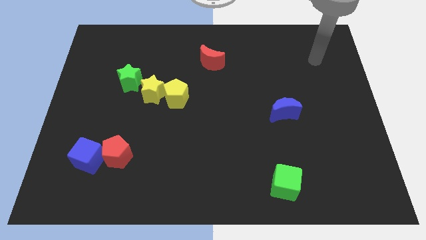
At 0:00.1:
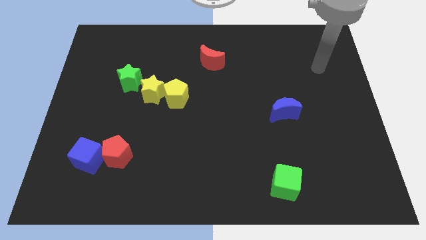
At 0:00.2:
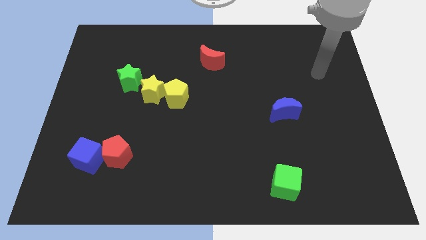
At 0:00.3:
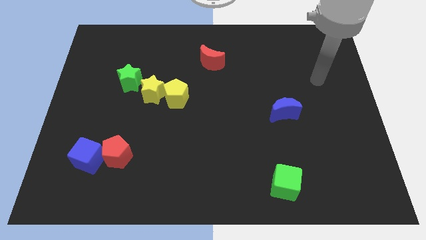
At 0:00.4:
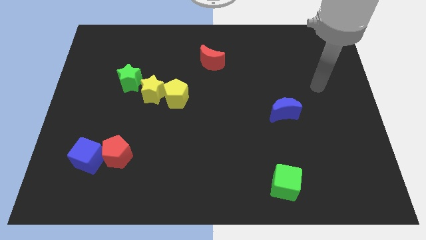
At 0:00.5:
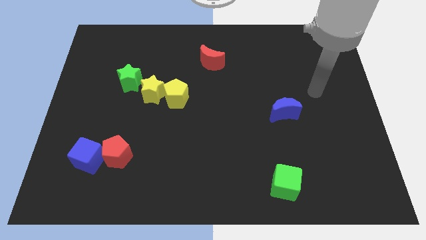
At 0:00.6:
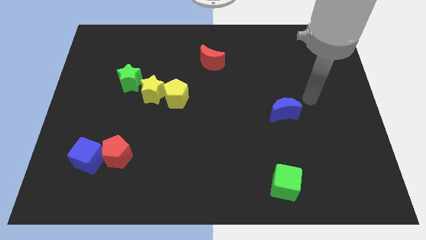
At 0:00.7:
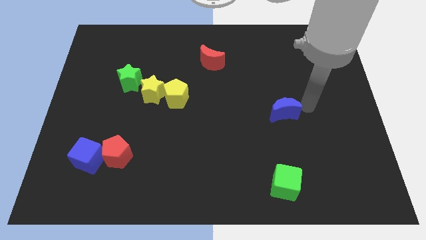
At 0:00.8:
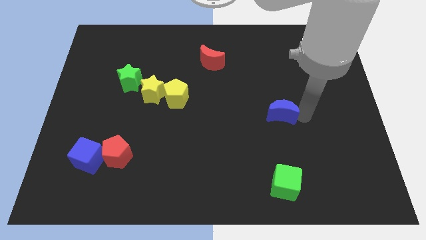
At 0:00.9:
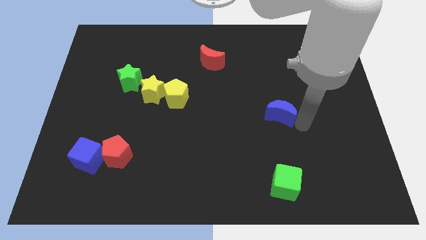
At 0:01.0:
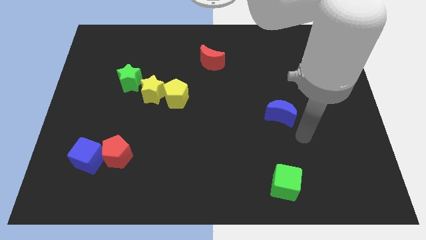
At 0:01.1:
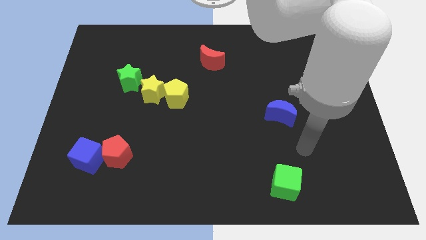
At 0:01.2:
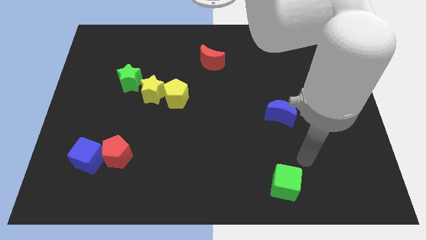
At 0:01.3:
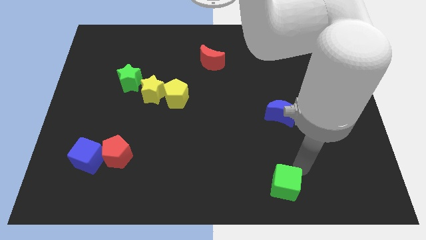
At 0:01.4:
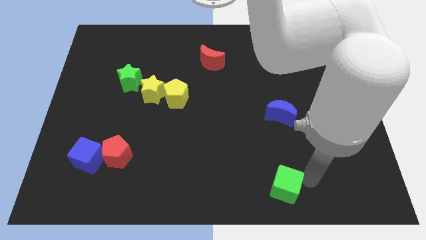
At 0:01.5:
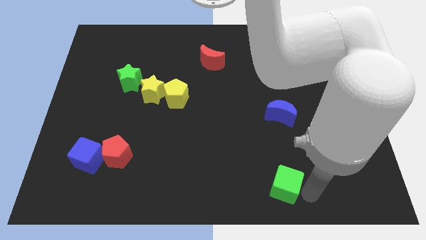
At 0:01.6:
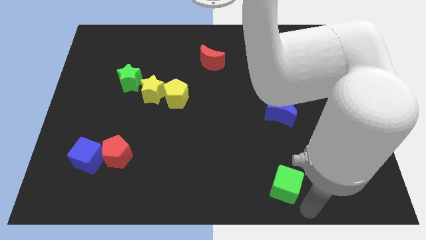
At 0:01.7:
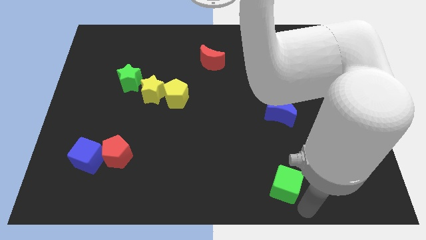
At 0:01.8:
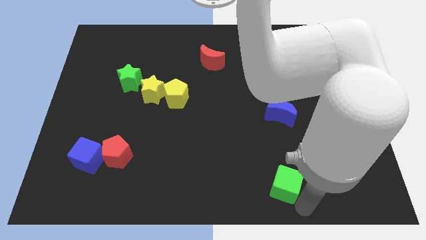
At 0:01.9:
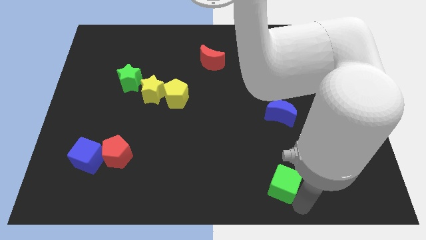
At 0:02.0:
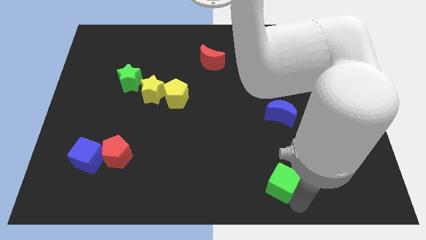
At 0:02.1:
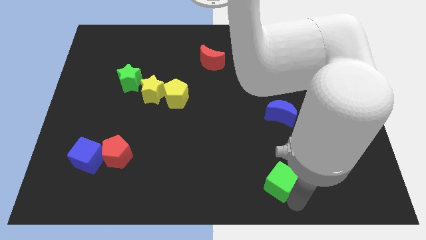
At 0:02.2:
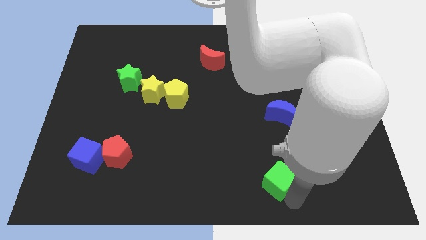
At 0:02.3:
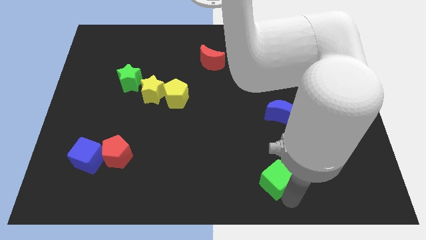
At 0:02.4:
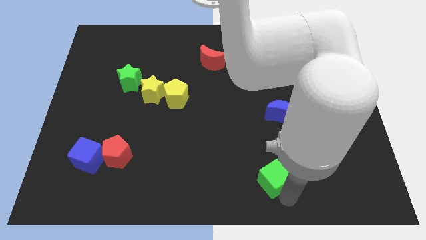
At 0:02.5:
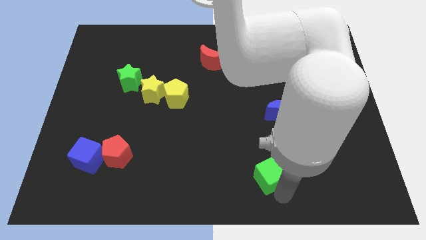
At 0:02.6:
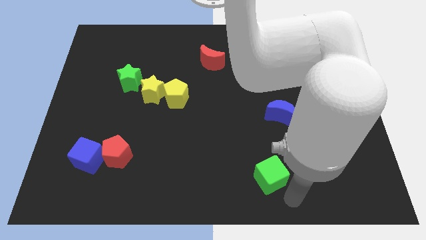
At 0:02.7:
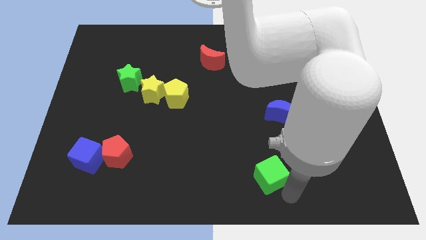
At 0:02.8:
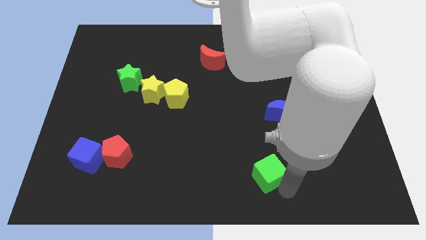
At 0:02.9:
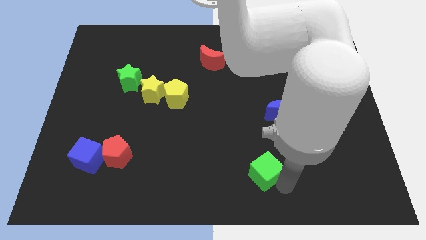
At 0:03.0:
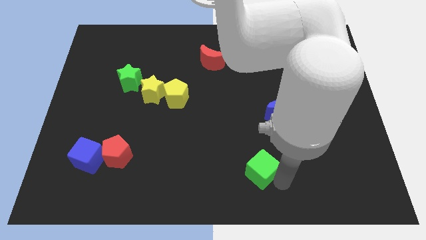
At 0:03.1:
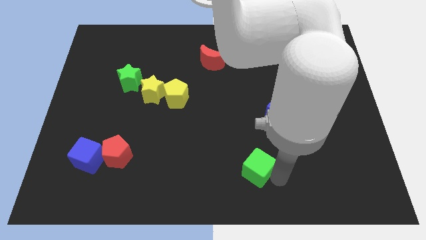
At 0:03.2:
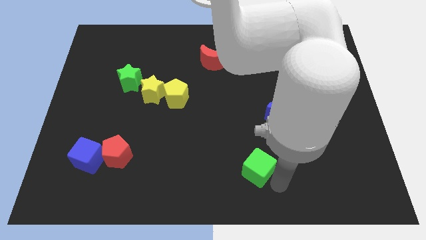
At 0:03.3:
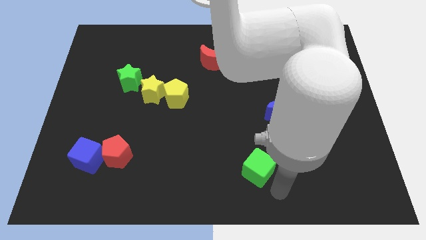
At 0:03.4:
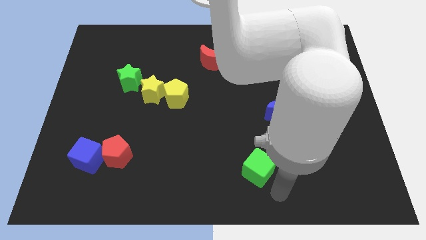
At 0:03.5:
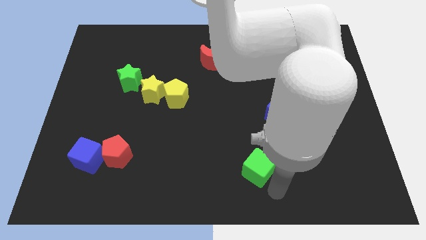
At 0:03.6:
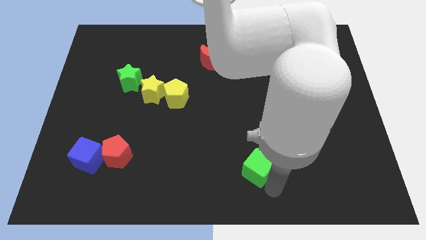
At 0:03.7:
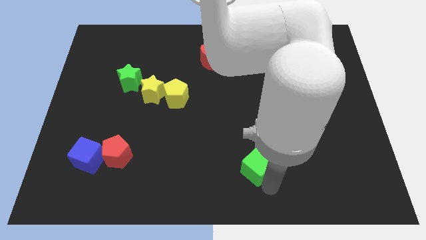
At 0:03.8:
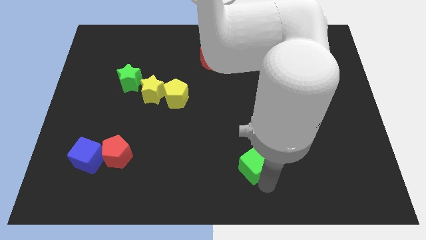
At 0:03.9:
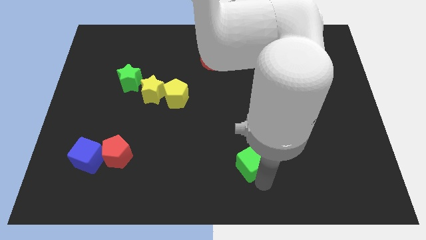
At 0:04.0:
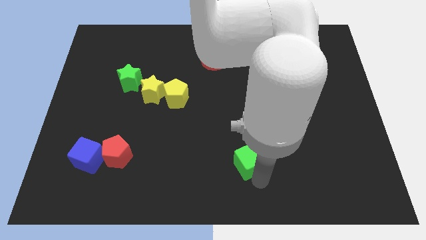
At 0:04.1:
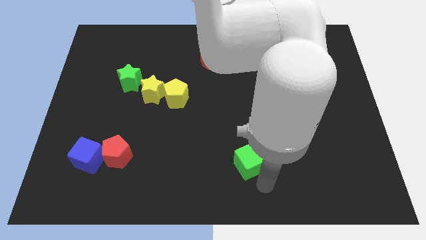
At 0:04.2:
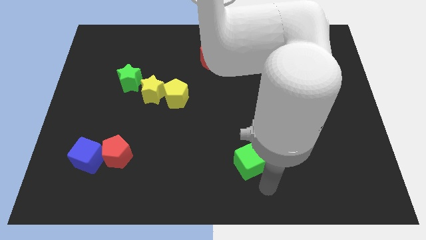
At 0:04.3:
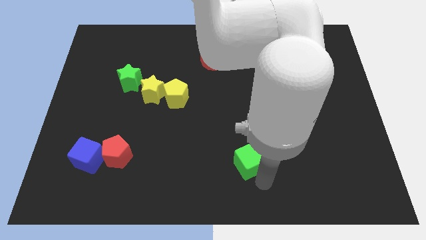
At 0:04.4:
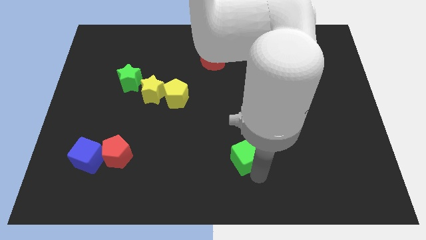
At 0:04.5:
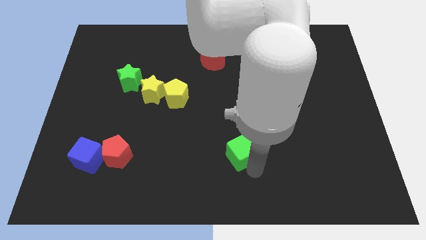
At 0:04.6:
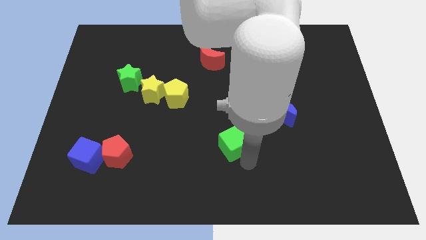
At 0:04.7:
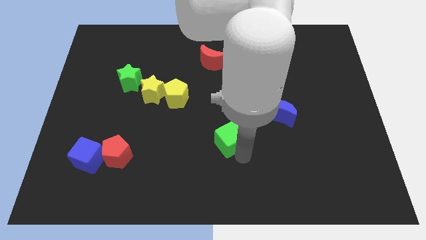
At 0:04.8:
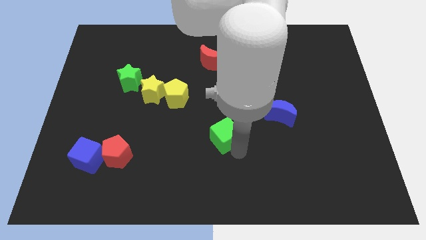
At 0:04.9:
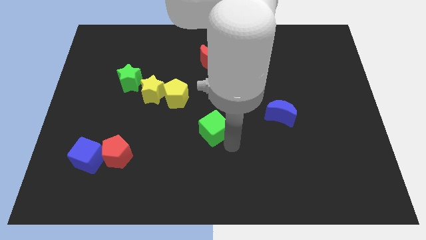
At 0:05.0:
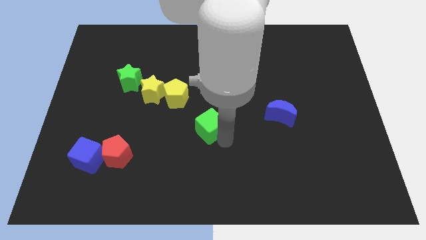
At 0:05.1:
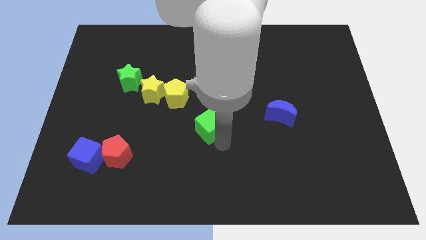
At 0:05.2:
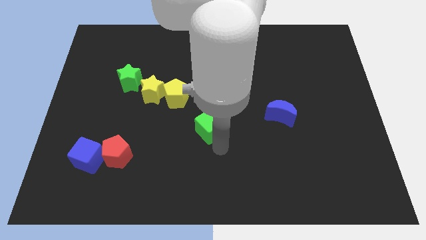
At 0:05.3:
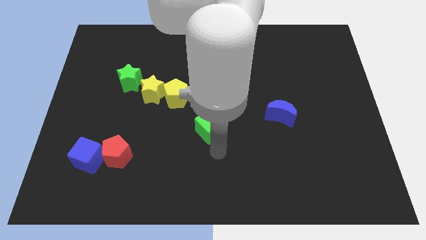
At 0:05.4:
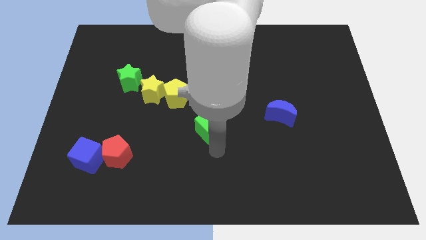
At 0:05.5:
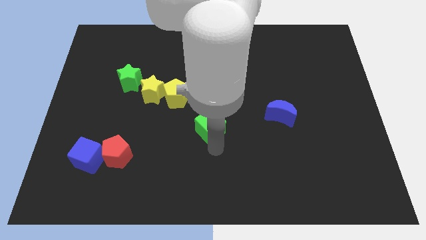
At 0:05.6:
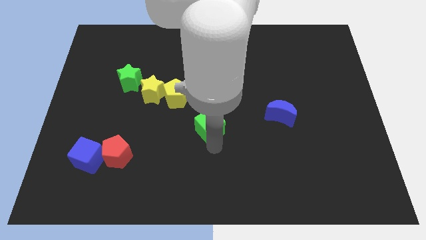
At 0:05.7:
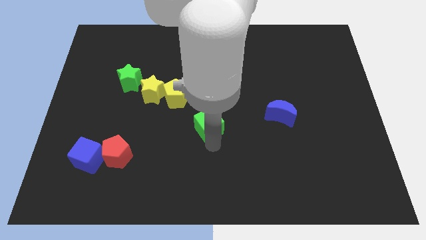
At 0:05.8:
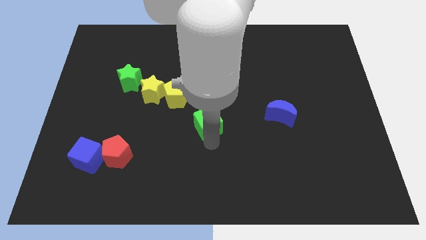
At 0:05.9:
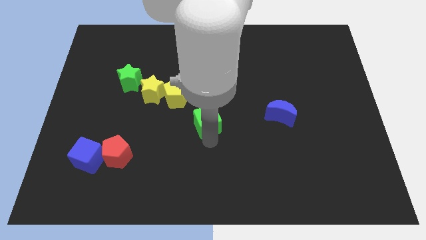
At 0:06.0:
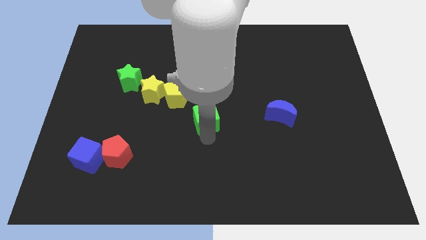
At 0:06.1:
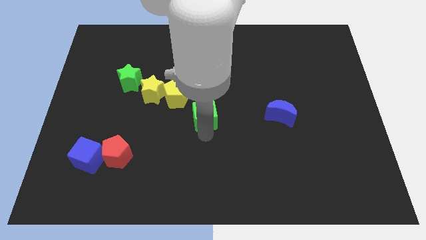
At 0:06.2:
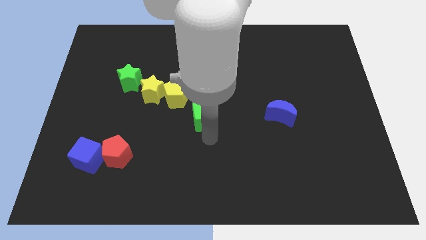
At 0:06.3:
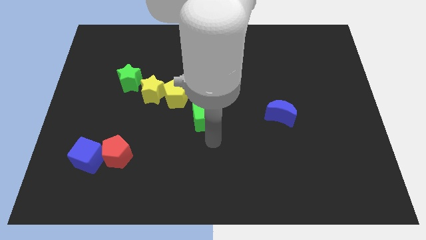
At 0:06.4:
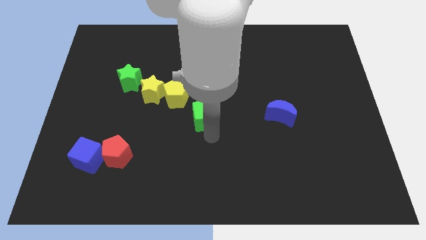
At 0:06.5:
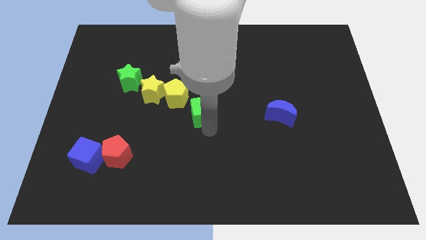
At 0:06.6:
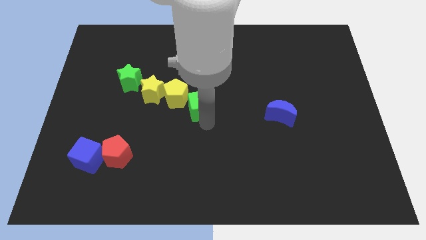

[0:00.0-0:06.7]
put the green cube to the right of the yellow star

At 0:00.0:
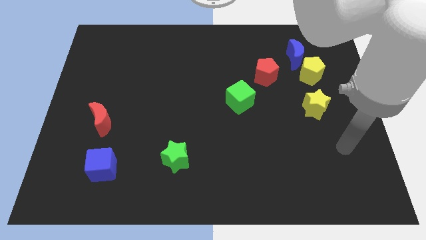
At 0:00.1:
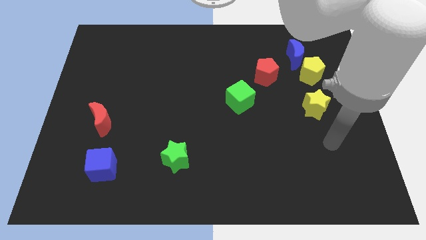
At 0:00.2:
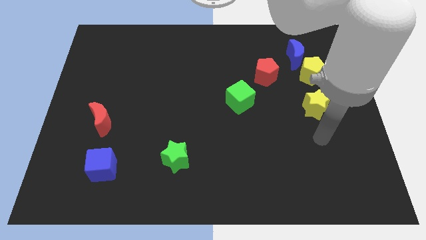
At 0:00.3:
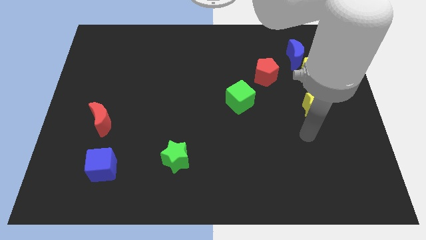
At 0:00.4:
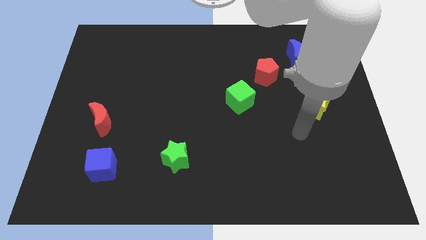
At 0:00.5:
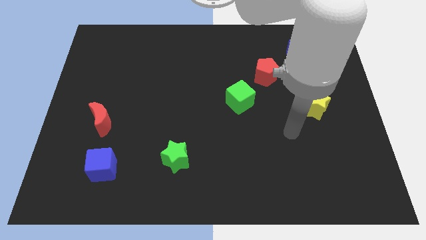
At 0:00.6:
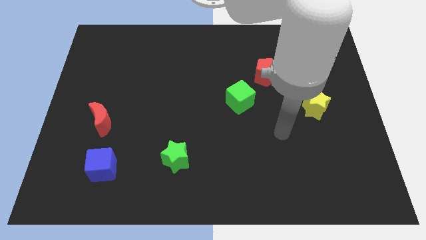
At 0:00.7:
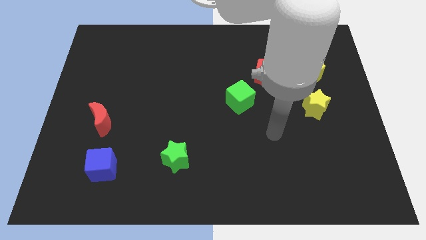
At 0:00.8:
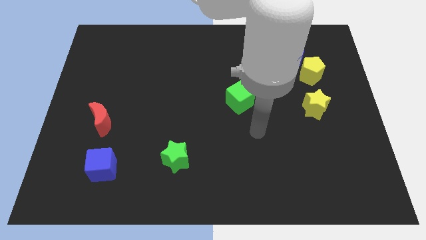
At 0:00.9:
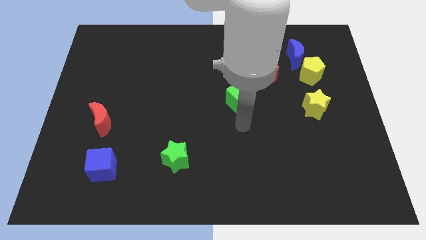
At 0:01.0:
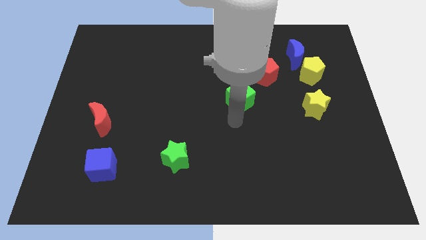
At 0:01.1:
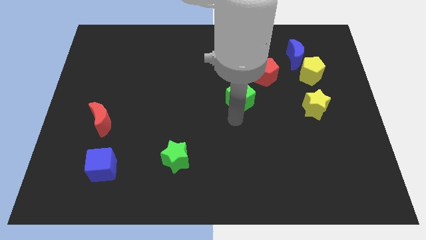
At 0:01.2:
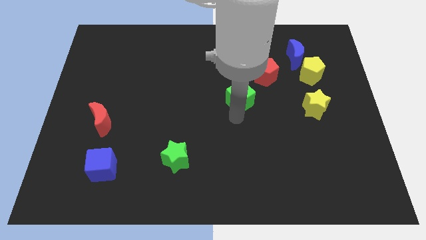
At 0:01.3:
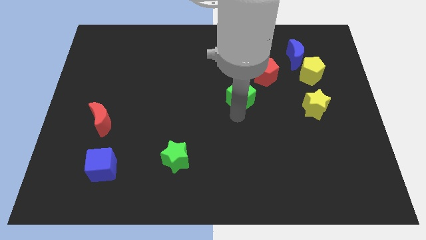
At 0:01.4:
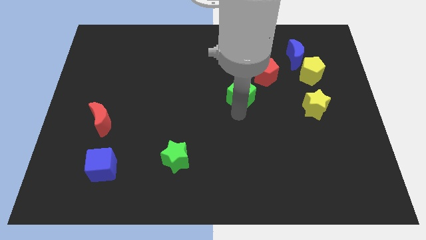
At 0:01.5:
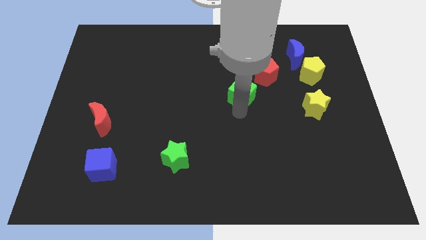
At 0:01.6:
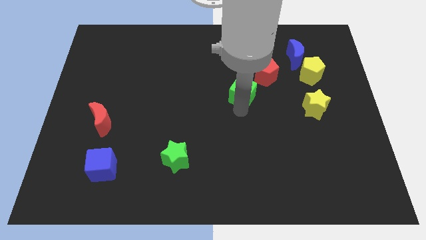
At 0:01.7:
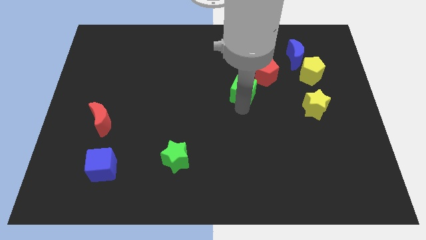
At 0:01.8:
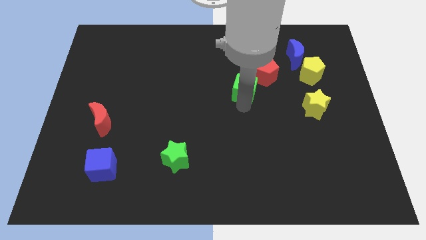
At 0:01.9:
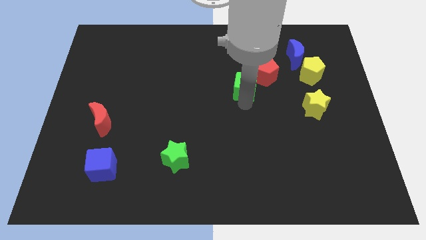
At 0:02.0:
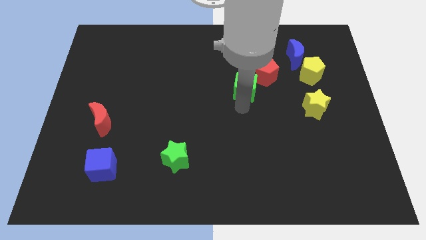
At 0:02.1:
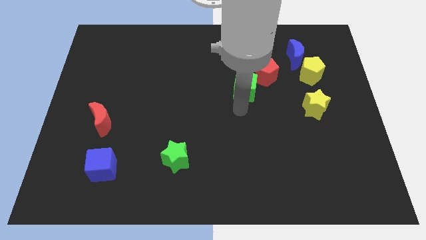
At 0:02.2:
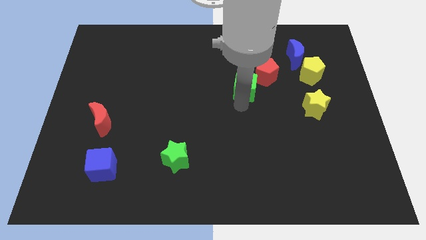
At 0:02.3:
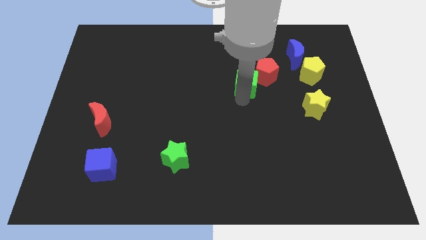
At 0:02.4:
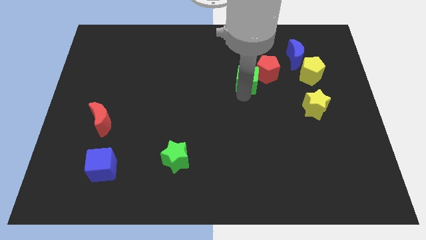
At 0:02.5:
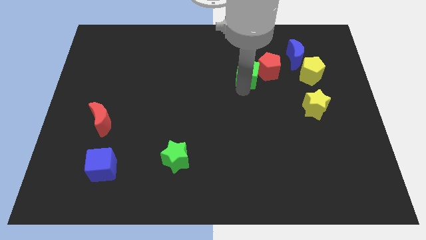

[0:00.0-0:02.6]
slide the green cube to the left of the yellow pentagon
